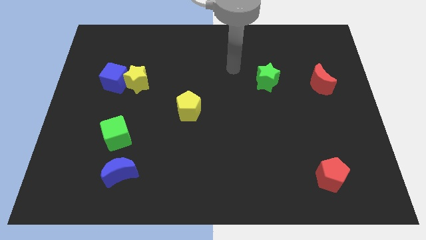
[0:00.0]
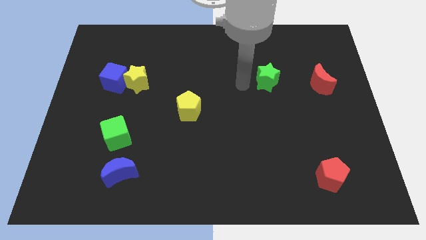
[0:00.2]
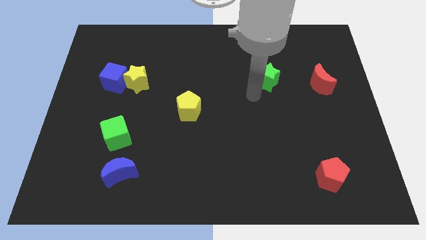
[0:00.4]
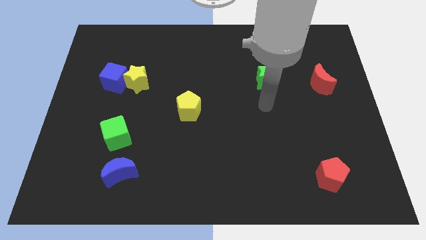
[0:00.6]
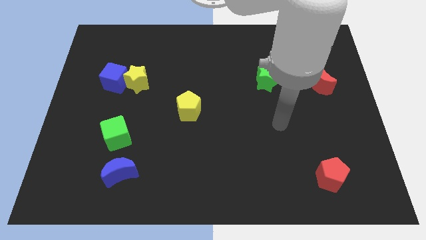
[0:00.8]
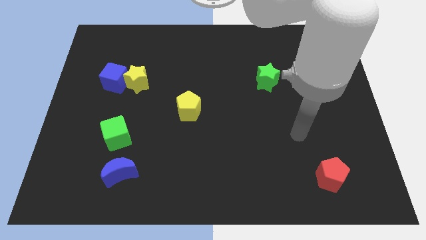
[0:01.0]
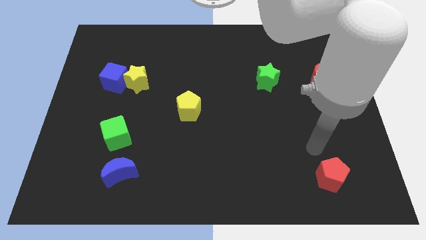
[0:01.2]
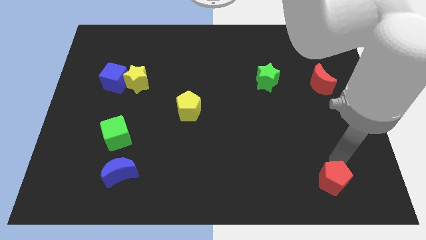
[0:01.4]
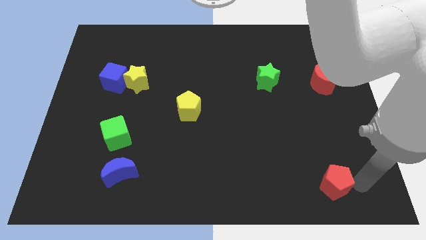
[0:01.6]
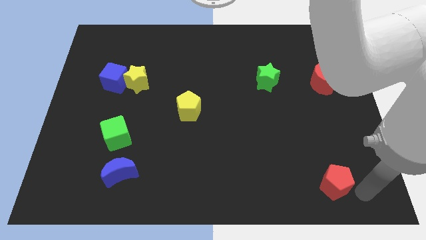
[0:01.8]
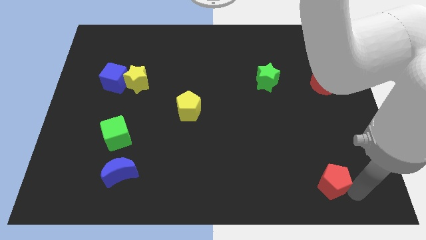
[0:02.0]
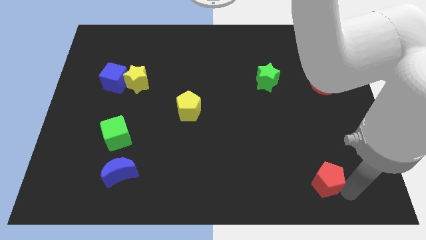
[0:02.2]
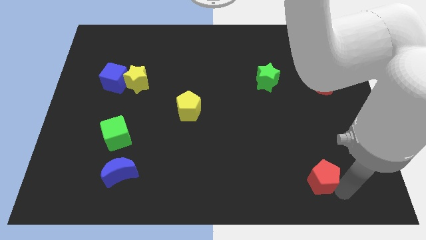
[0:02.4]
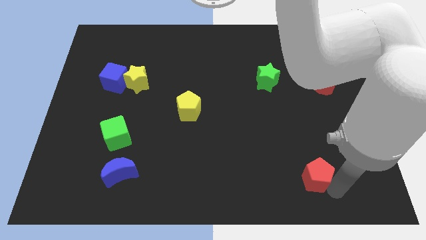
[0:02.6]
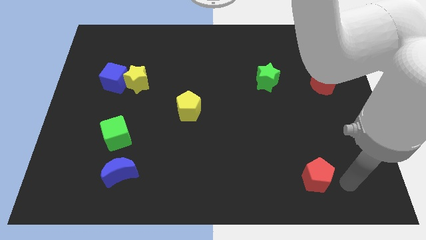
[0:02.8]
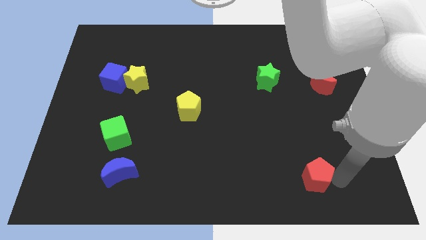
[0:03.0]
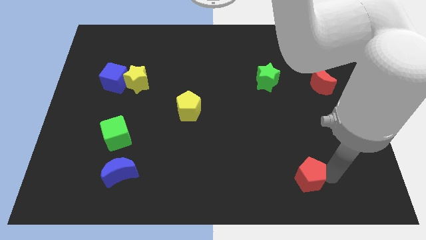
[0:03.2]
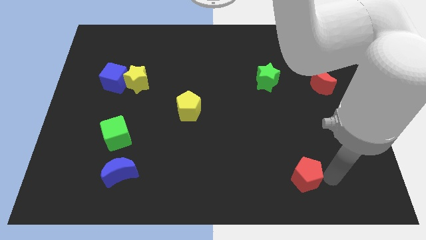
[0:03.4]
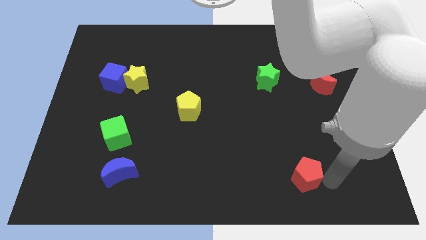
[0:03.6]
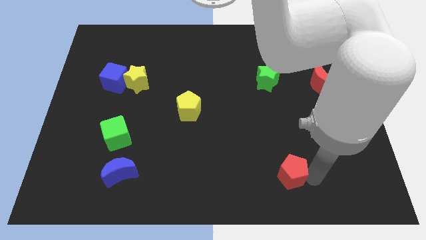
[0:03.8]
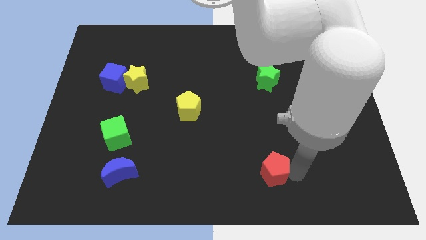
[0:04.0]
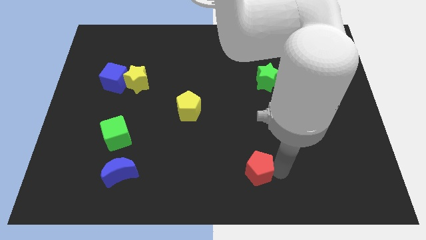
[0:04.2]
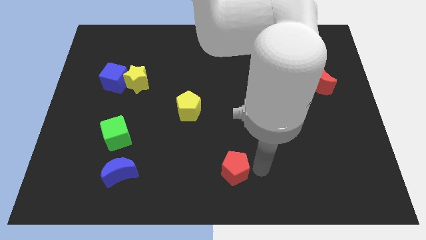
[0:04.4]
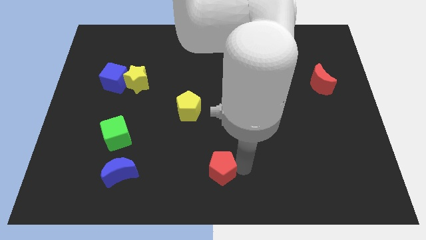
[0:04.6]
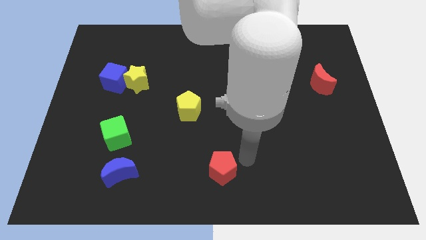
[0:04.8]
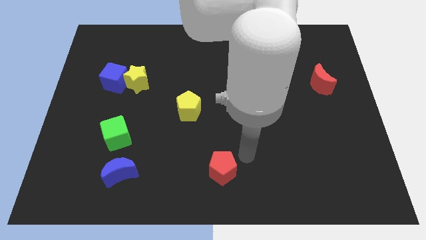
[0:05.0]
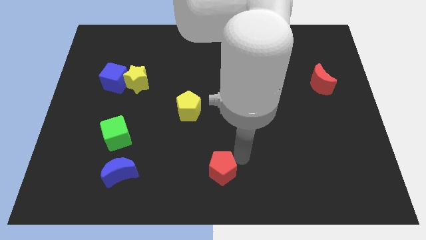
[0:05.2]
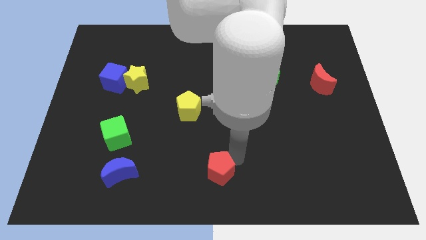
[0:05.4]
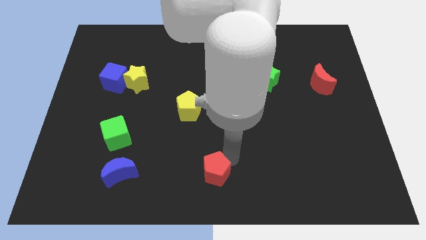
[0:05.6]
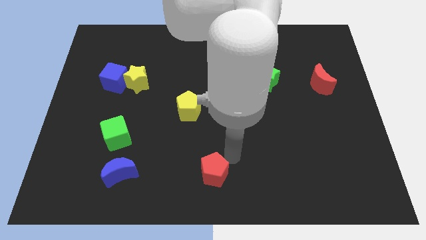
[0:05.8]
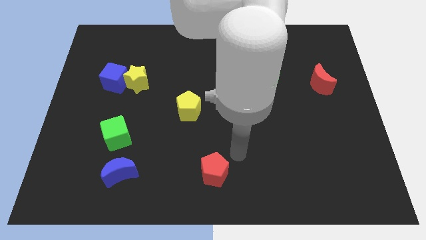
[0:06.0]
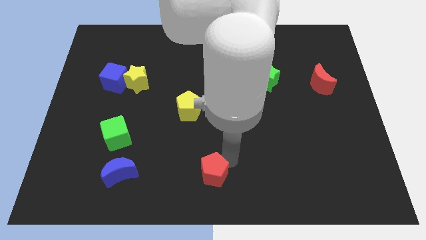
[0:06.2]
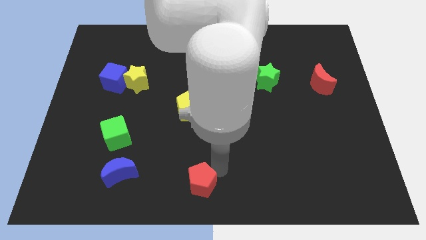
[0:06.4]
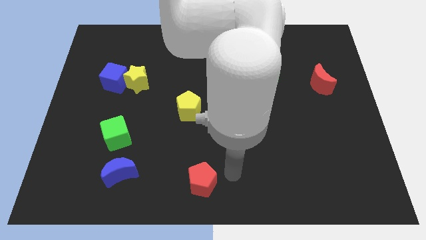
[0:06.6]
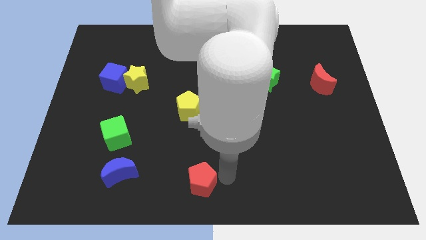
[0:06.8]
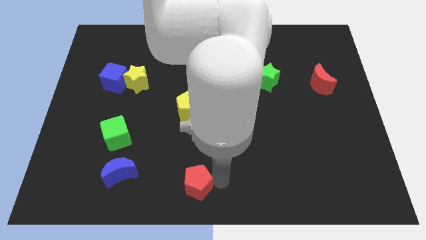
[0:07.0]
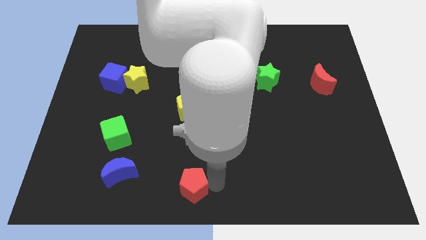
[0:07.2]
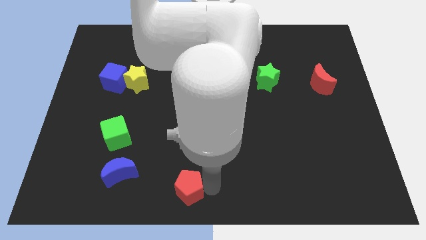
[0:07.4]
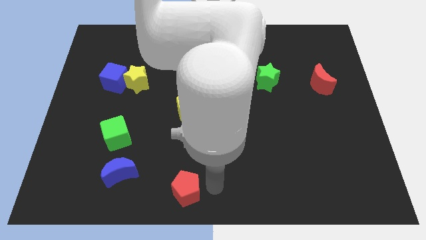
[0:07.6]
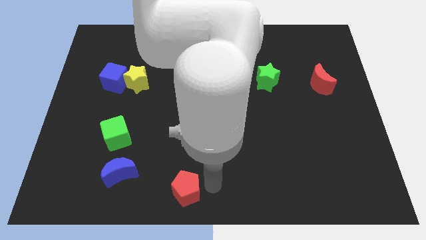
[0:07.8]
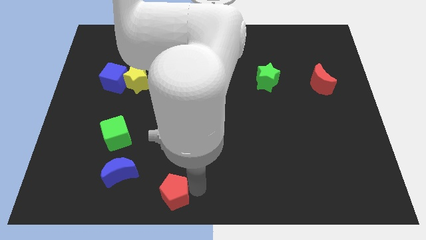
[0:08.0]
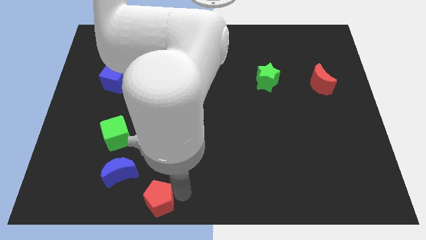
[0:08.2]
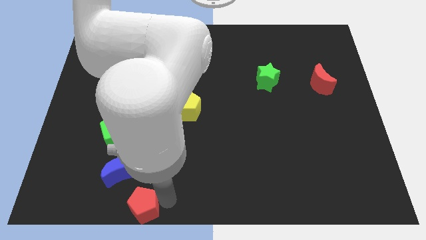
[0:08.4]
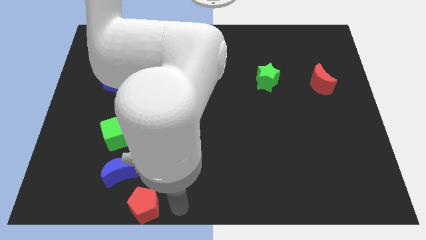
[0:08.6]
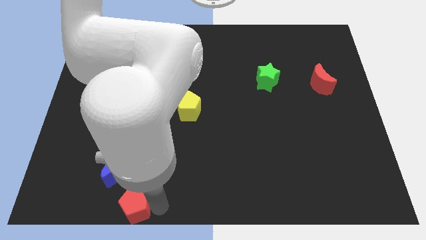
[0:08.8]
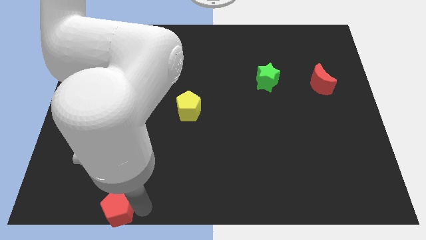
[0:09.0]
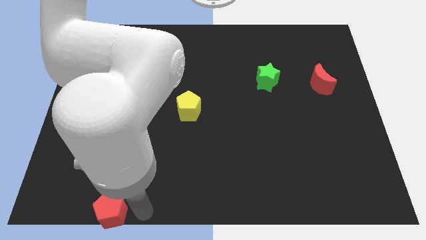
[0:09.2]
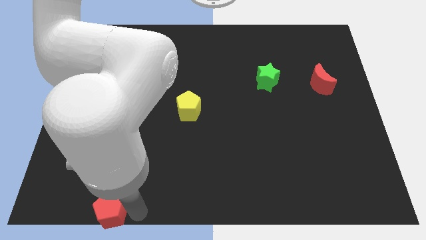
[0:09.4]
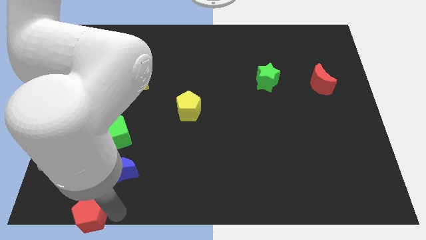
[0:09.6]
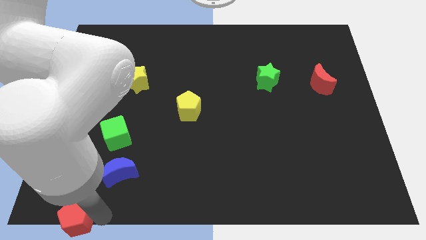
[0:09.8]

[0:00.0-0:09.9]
slide the red pentagon to the bottom left of the board

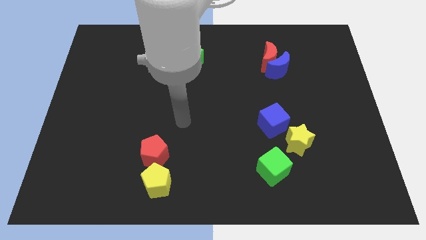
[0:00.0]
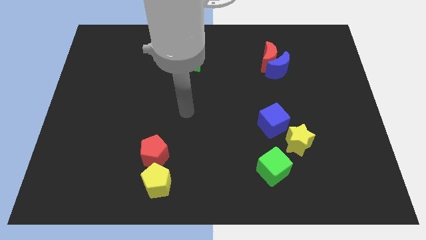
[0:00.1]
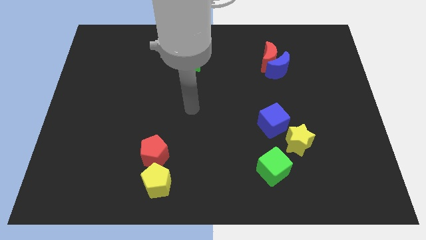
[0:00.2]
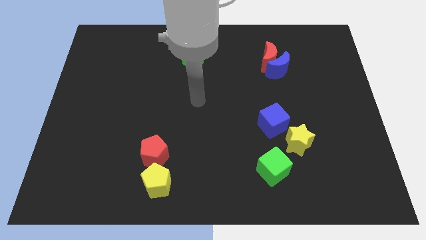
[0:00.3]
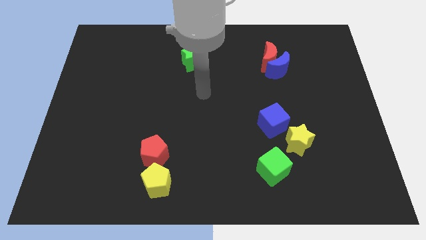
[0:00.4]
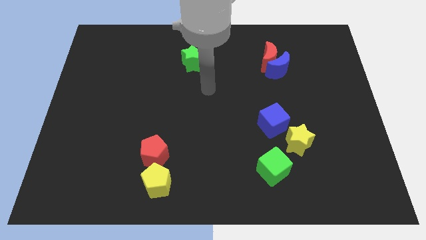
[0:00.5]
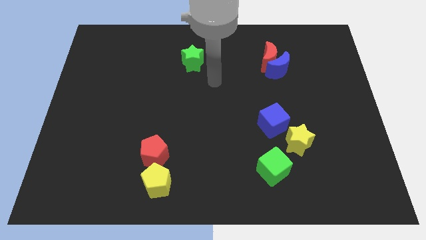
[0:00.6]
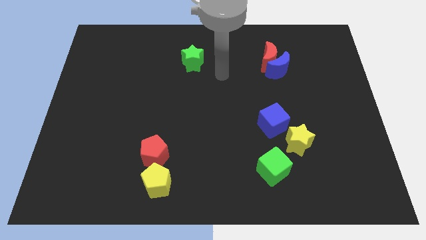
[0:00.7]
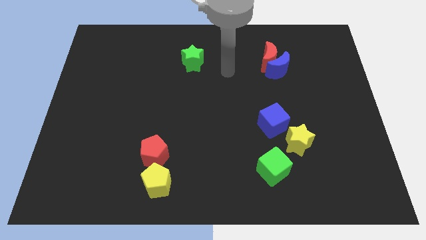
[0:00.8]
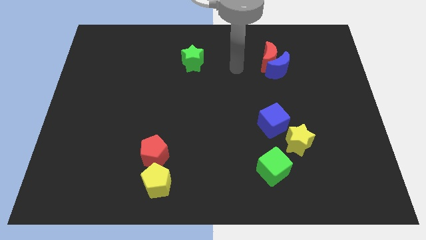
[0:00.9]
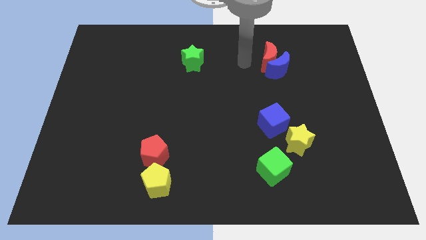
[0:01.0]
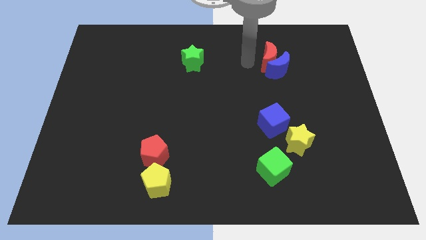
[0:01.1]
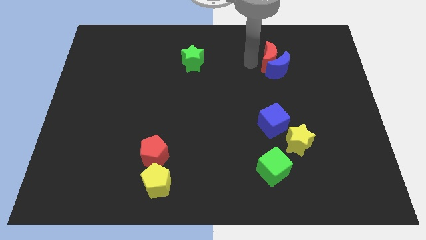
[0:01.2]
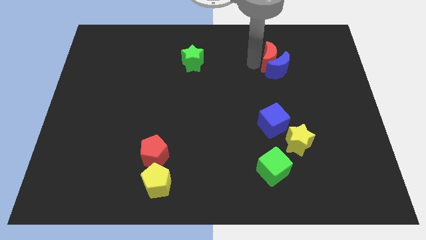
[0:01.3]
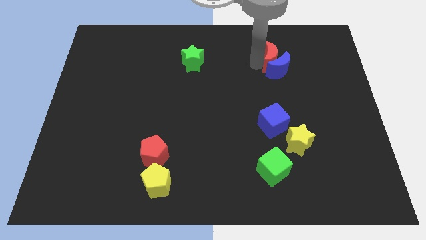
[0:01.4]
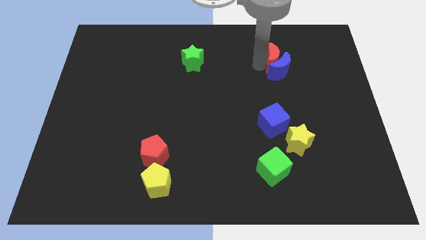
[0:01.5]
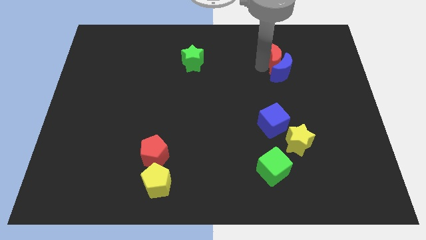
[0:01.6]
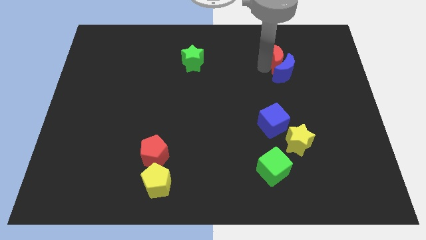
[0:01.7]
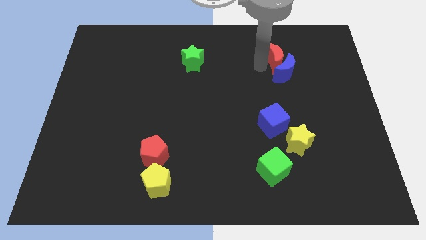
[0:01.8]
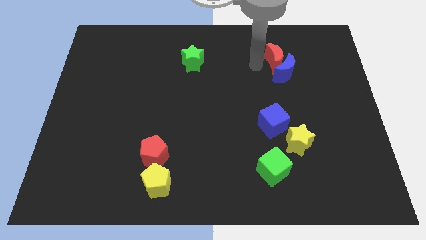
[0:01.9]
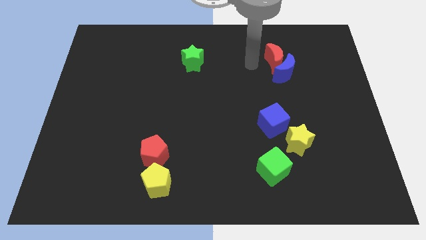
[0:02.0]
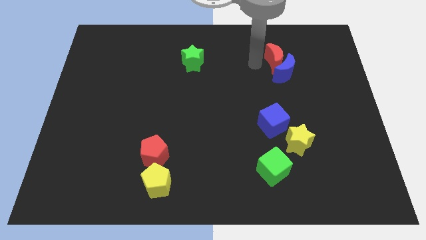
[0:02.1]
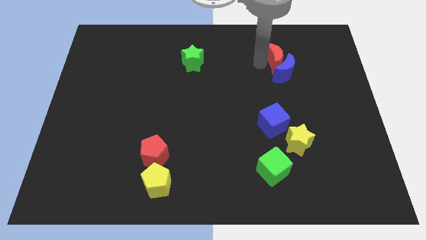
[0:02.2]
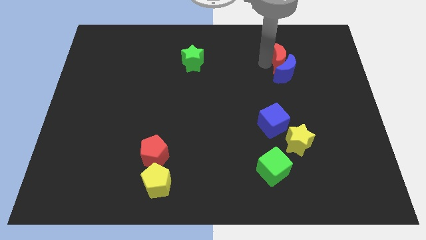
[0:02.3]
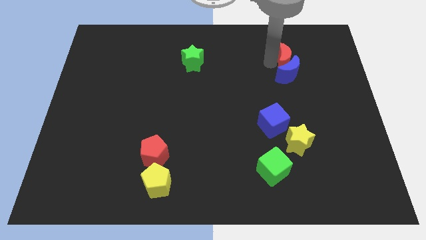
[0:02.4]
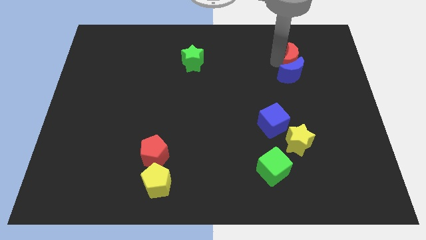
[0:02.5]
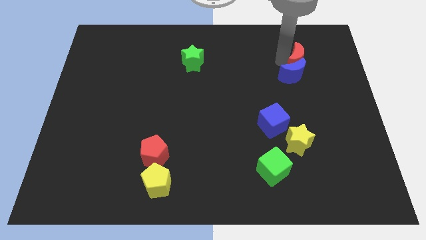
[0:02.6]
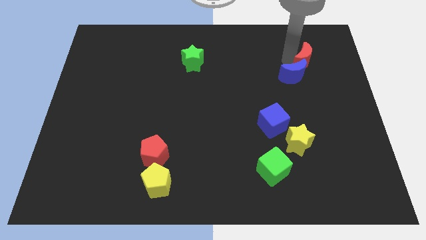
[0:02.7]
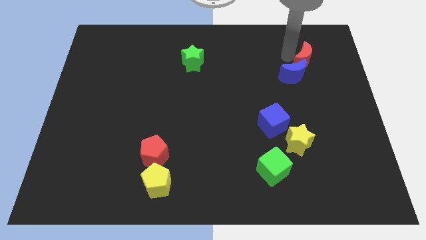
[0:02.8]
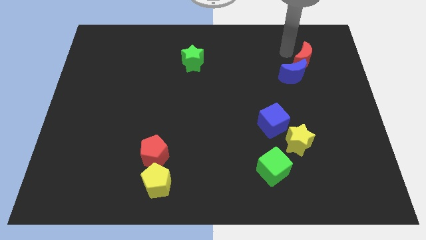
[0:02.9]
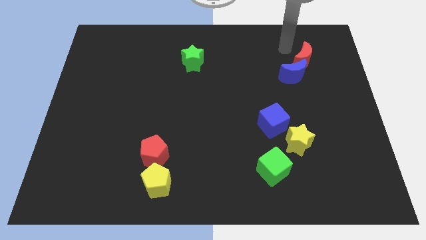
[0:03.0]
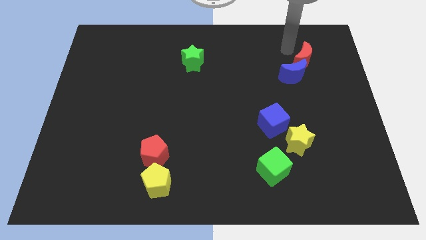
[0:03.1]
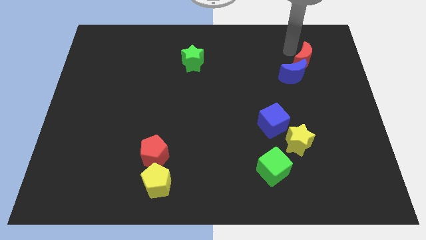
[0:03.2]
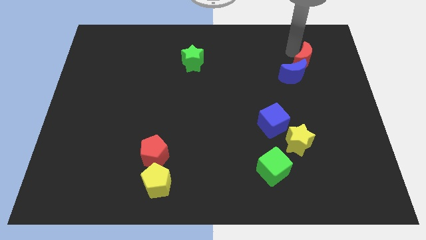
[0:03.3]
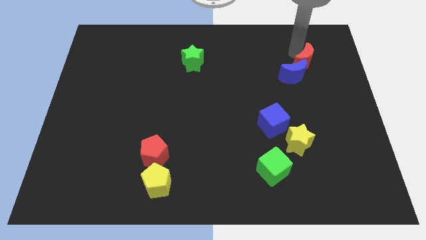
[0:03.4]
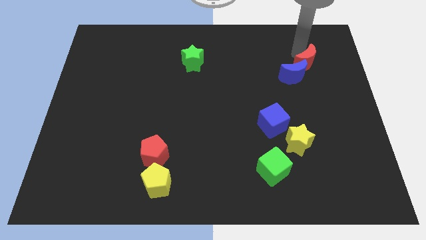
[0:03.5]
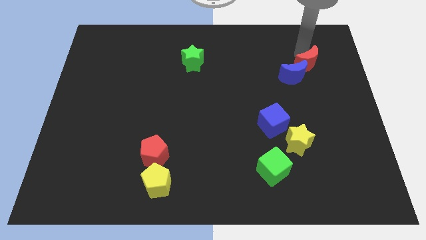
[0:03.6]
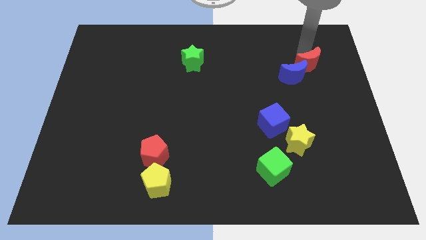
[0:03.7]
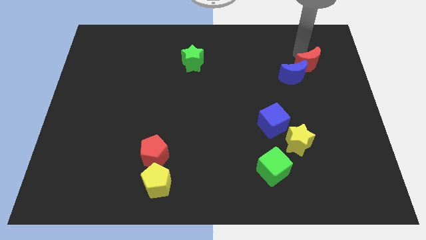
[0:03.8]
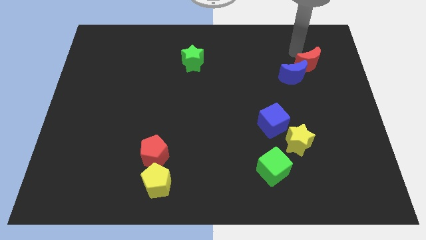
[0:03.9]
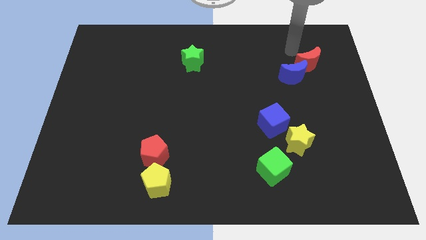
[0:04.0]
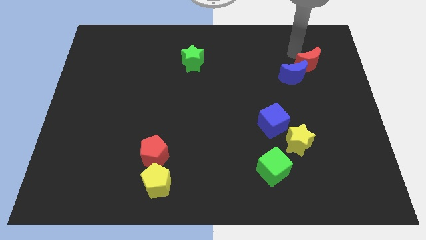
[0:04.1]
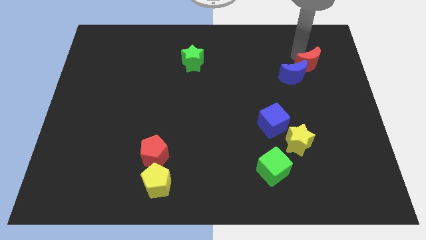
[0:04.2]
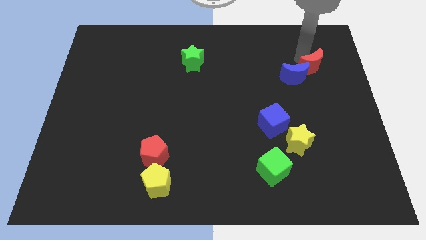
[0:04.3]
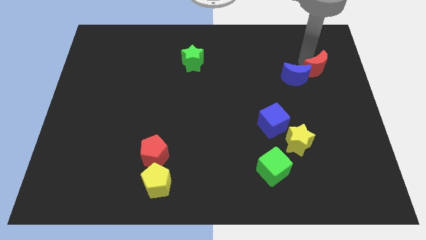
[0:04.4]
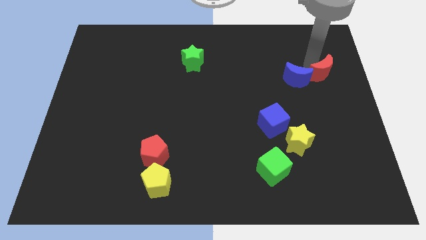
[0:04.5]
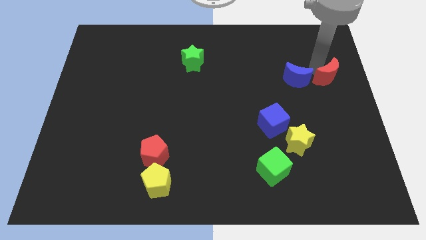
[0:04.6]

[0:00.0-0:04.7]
push the red moon to the center right
